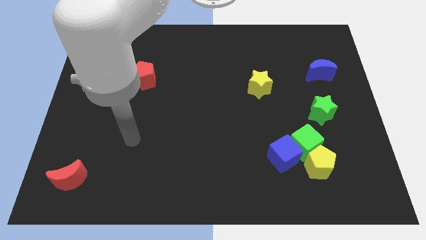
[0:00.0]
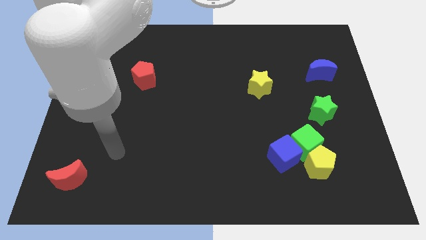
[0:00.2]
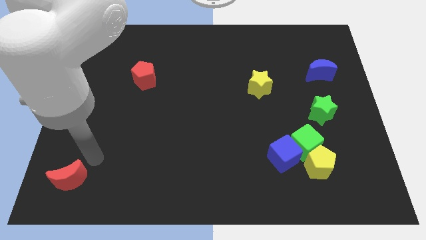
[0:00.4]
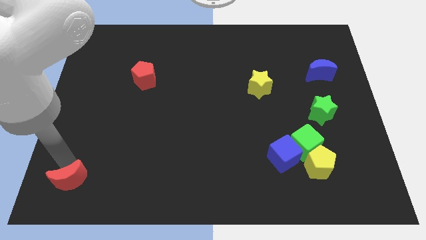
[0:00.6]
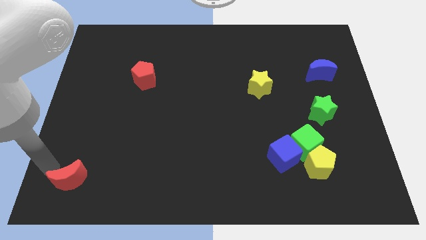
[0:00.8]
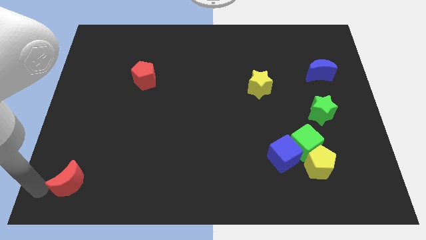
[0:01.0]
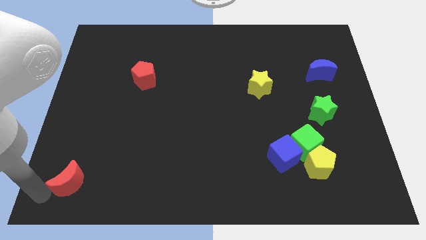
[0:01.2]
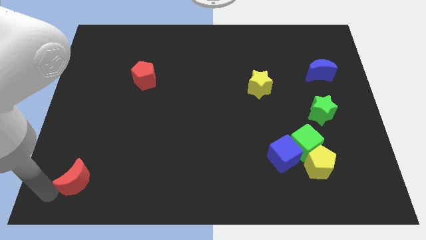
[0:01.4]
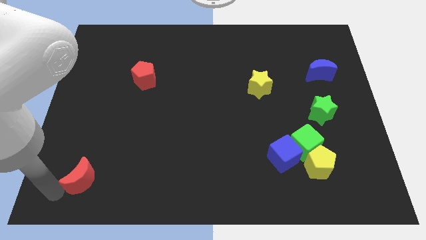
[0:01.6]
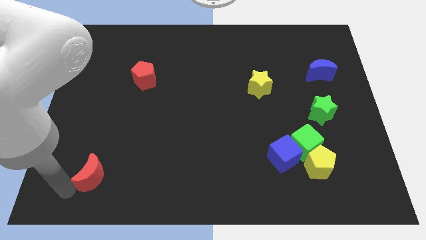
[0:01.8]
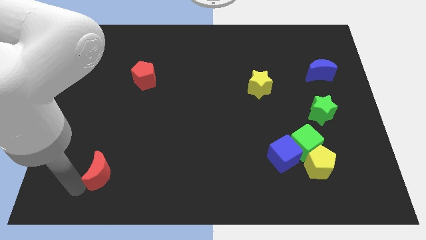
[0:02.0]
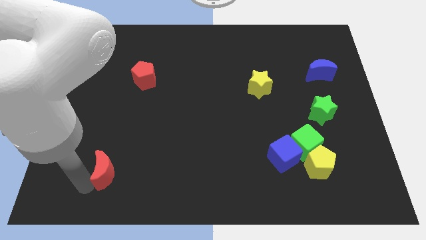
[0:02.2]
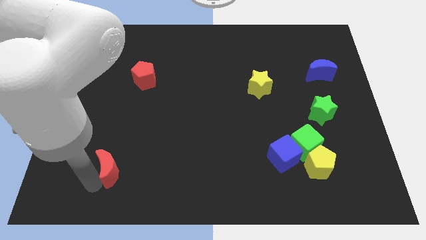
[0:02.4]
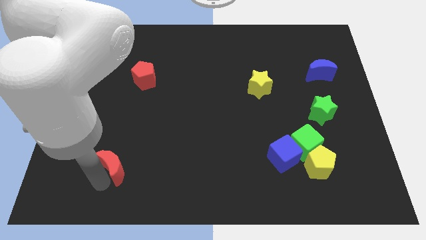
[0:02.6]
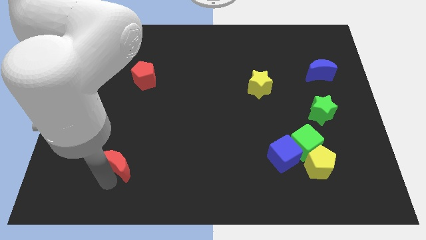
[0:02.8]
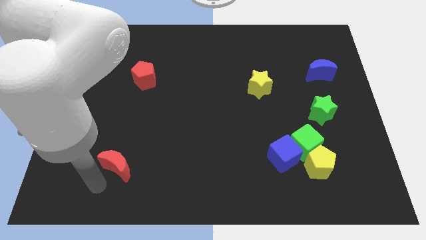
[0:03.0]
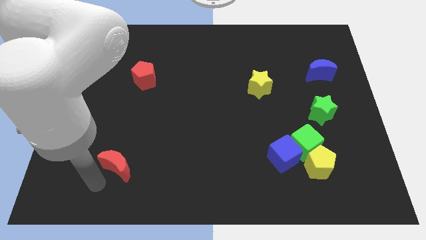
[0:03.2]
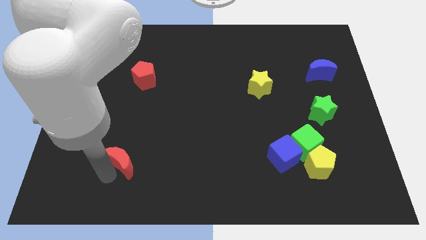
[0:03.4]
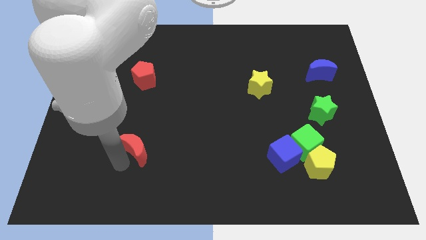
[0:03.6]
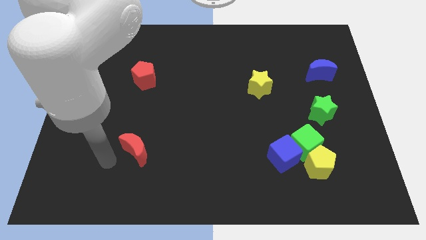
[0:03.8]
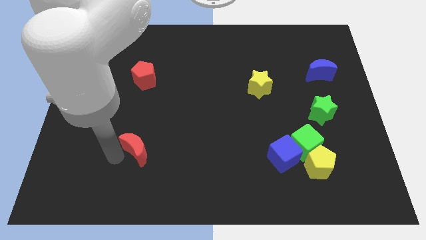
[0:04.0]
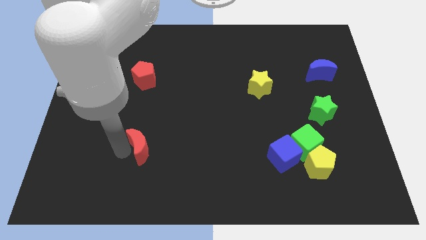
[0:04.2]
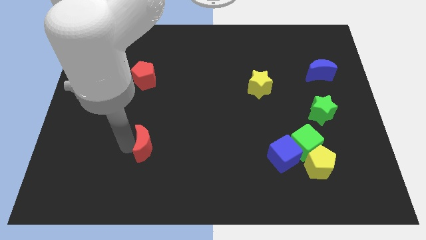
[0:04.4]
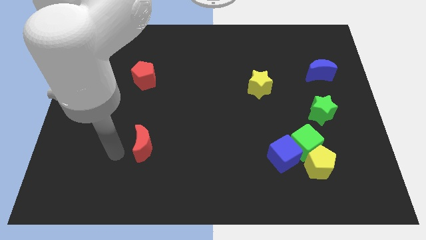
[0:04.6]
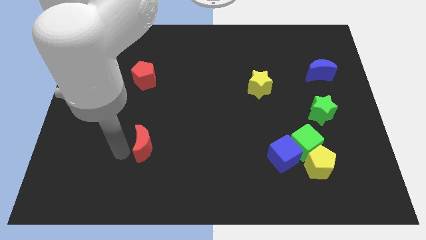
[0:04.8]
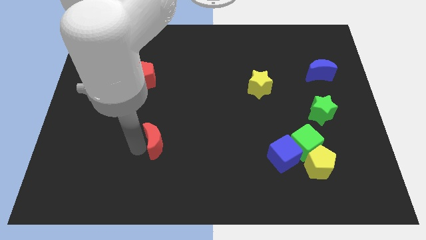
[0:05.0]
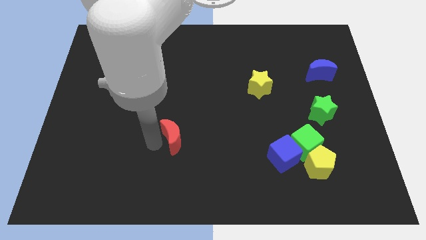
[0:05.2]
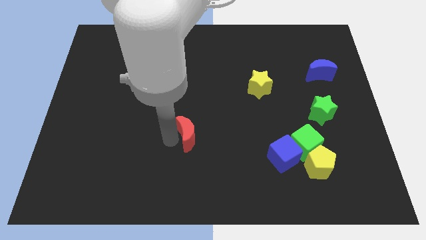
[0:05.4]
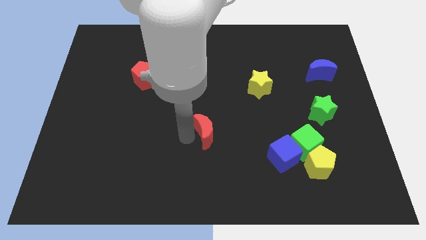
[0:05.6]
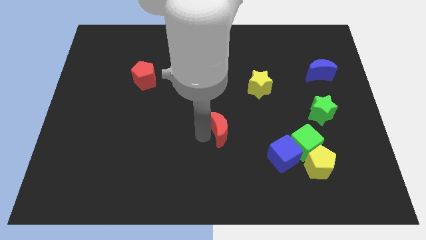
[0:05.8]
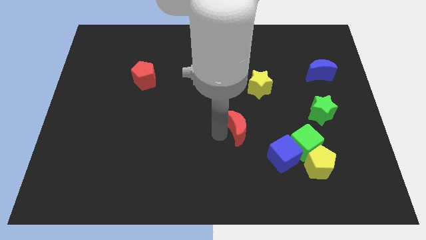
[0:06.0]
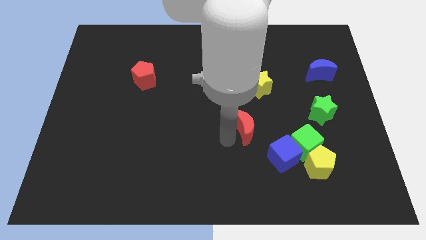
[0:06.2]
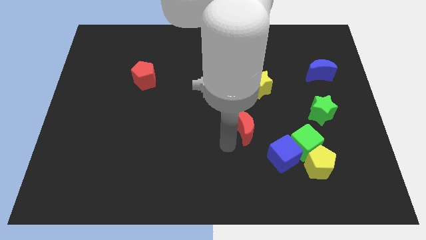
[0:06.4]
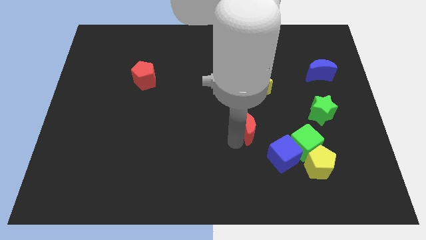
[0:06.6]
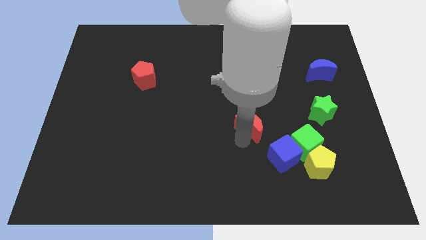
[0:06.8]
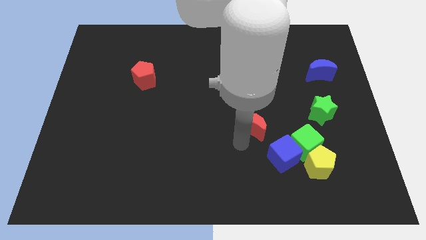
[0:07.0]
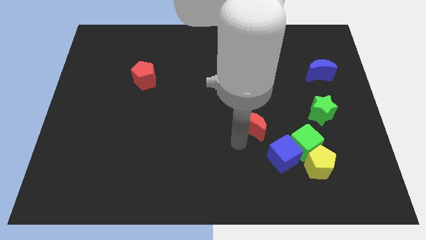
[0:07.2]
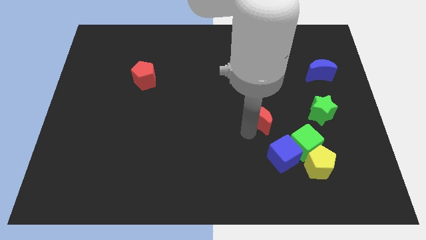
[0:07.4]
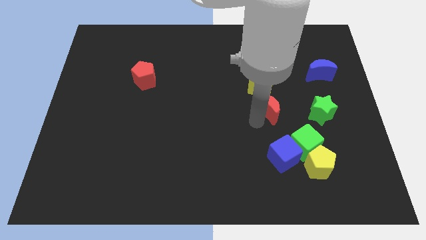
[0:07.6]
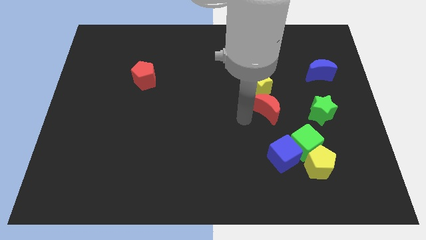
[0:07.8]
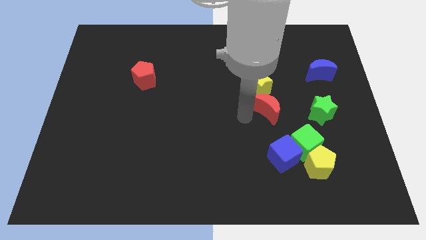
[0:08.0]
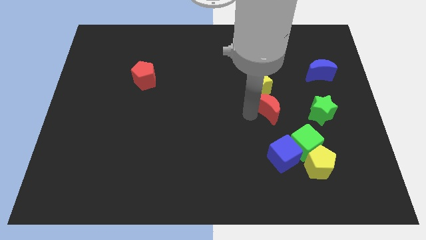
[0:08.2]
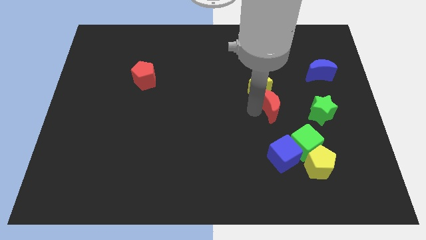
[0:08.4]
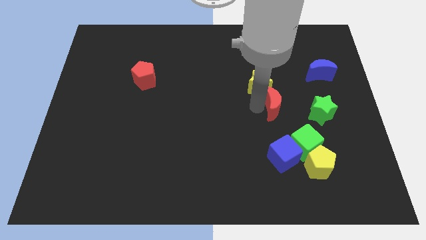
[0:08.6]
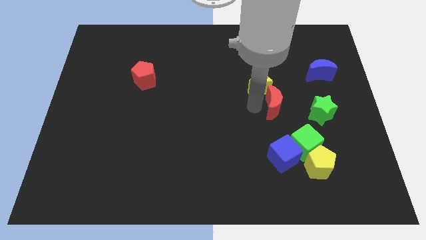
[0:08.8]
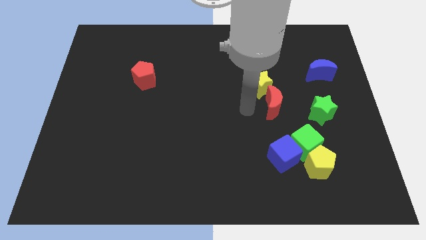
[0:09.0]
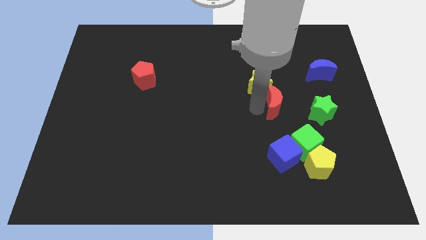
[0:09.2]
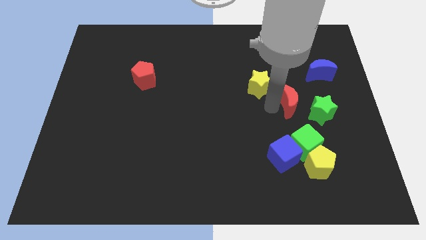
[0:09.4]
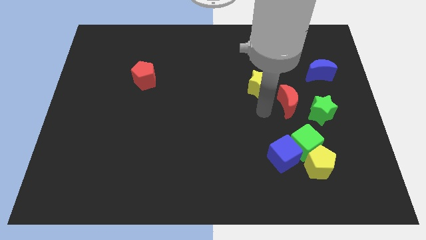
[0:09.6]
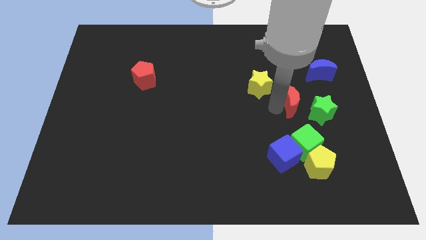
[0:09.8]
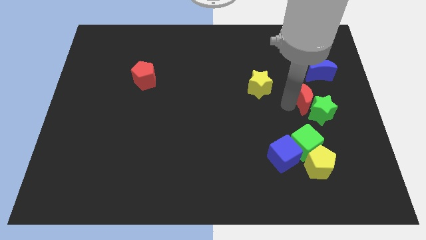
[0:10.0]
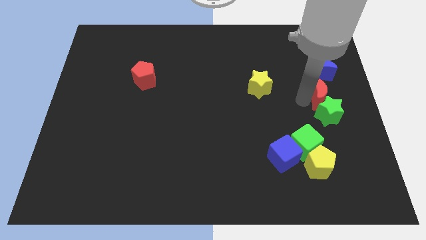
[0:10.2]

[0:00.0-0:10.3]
slide the red moon to the center right

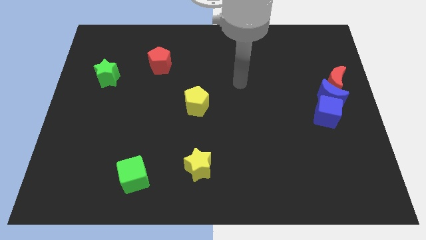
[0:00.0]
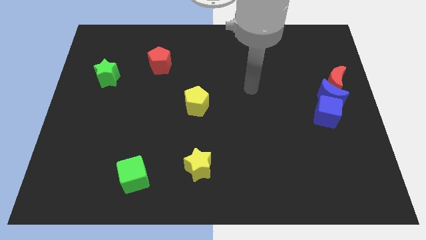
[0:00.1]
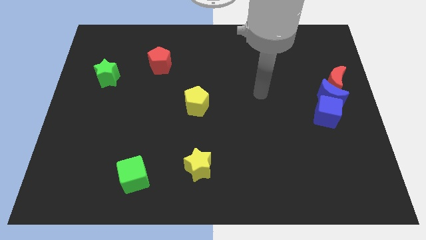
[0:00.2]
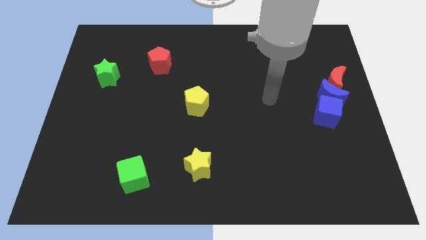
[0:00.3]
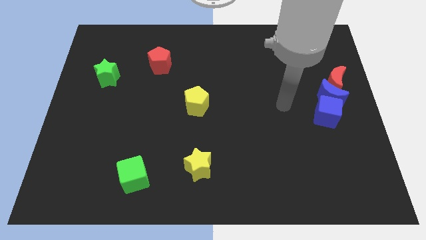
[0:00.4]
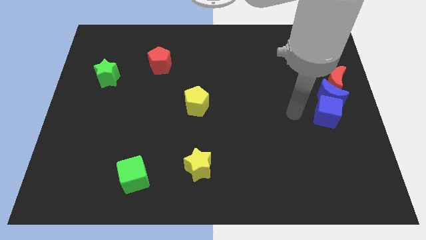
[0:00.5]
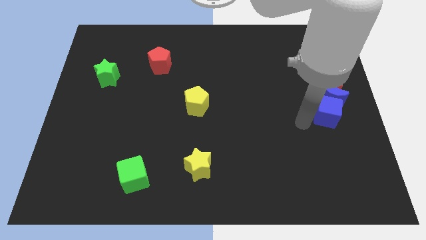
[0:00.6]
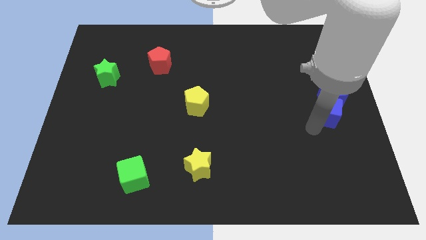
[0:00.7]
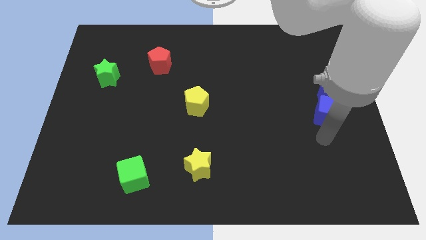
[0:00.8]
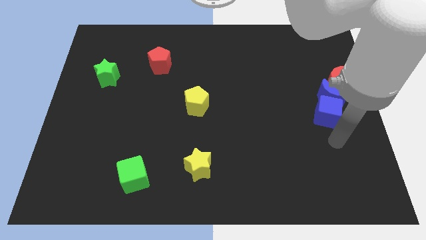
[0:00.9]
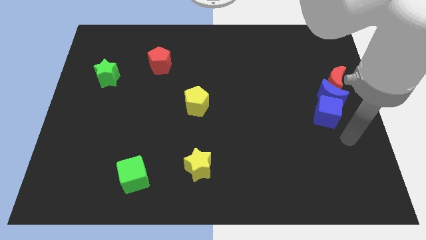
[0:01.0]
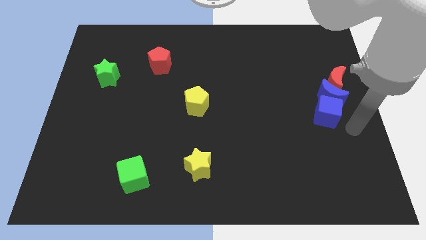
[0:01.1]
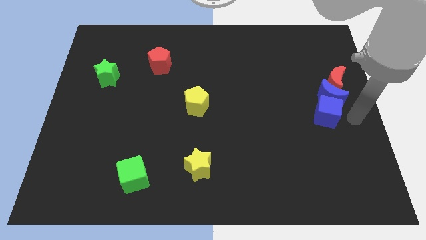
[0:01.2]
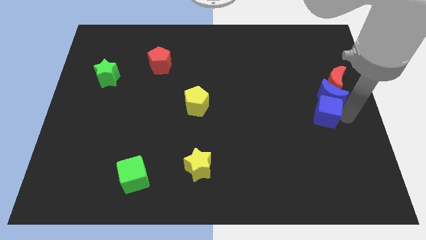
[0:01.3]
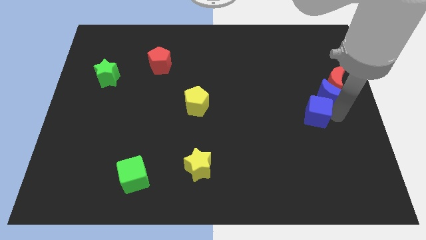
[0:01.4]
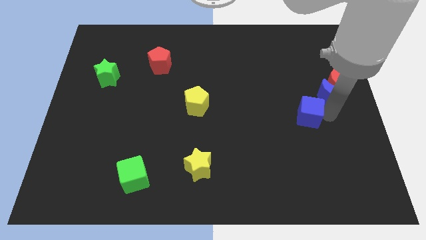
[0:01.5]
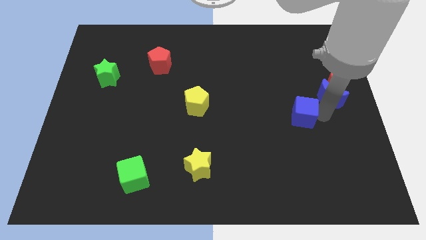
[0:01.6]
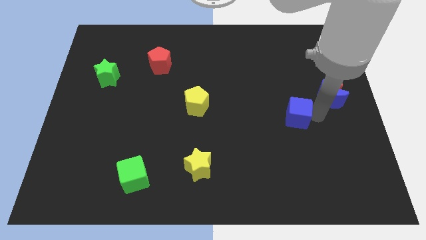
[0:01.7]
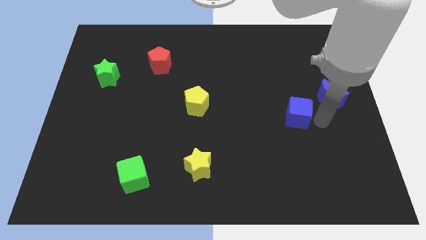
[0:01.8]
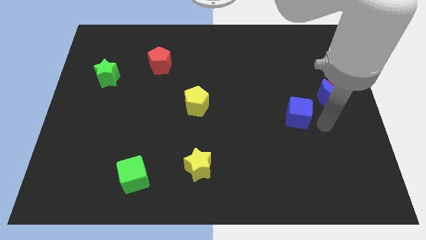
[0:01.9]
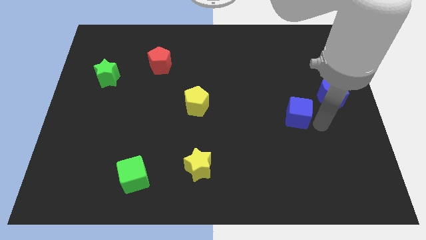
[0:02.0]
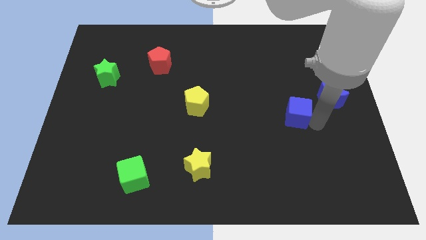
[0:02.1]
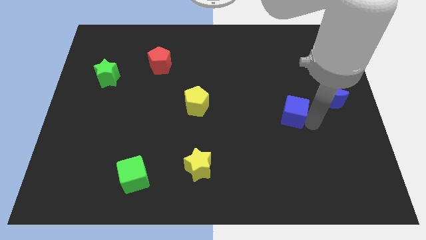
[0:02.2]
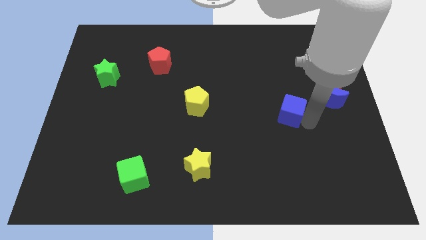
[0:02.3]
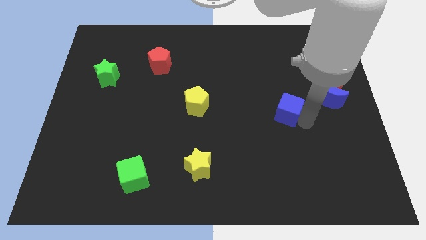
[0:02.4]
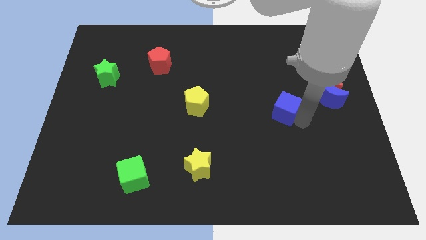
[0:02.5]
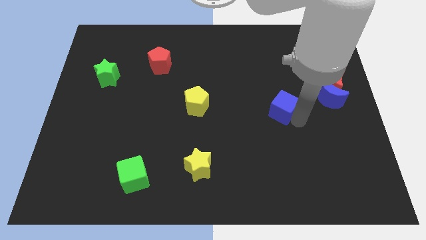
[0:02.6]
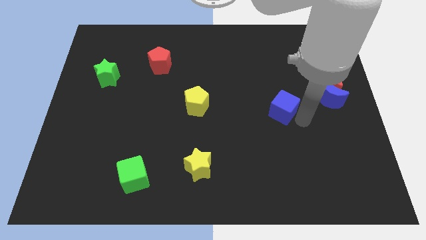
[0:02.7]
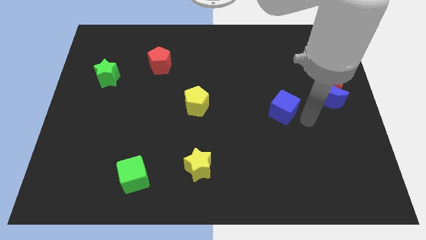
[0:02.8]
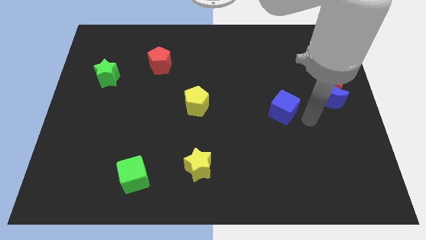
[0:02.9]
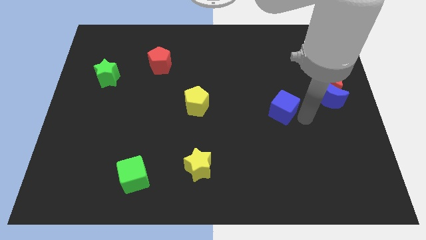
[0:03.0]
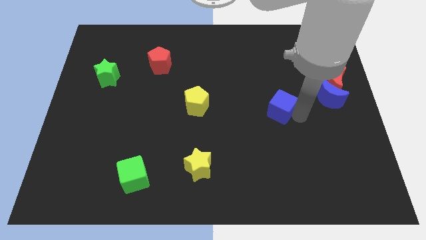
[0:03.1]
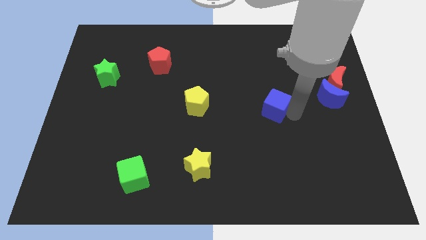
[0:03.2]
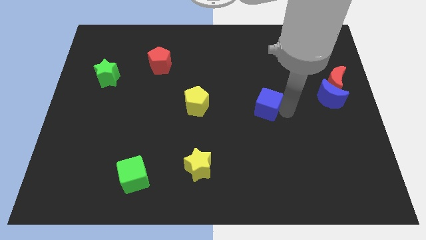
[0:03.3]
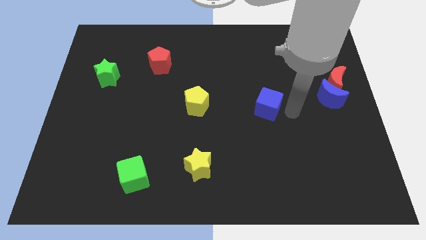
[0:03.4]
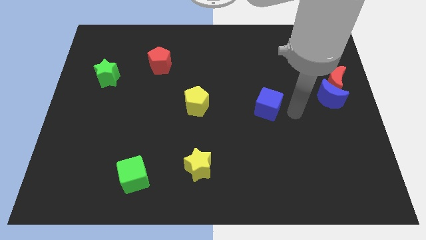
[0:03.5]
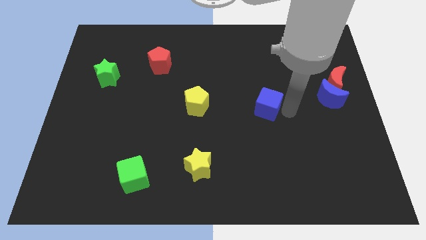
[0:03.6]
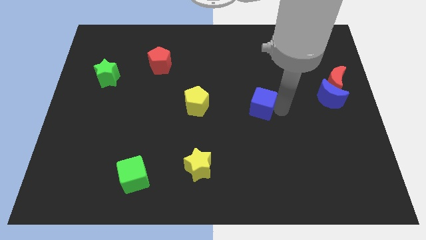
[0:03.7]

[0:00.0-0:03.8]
put the blue cube to the center of the board
